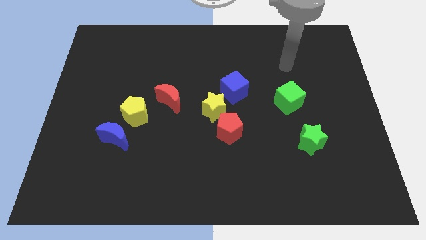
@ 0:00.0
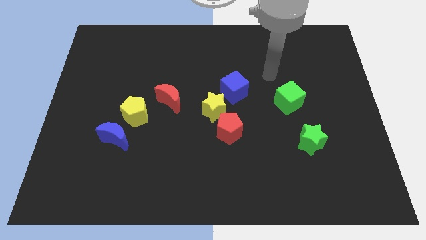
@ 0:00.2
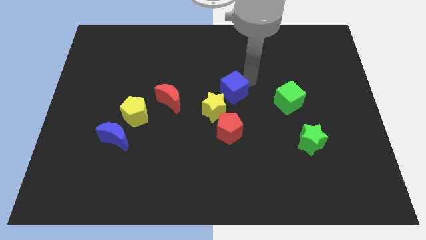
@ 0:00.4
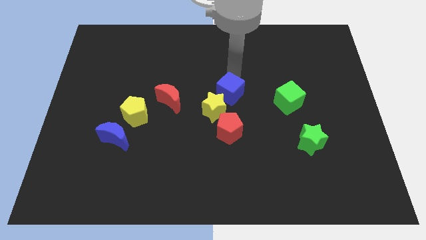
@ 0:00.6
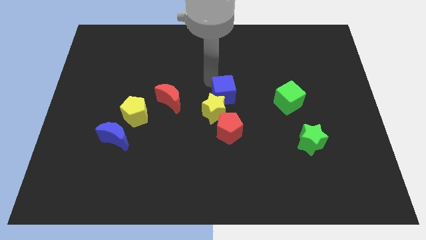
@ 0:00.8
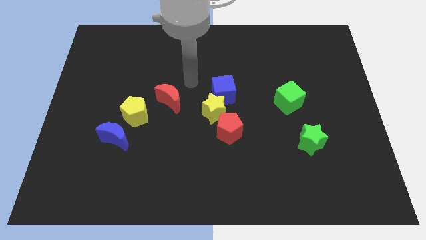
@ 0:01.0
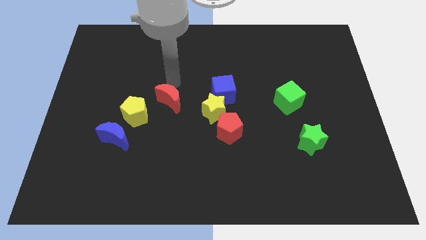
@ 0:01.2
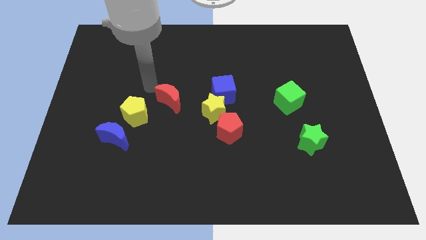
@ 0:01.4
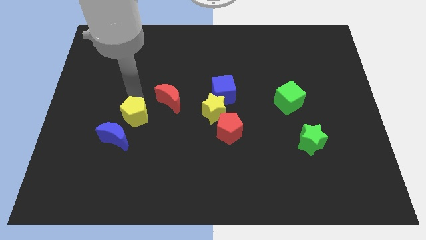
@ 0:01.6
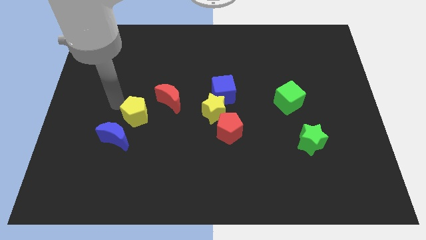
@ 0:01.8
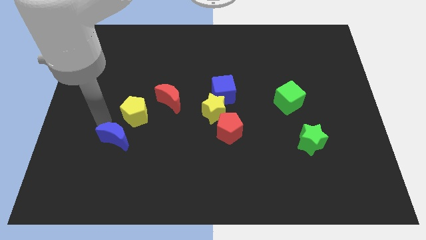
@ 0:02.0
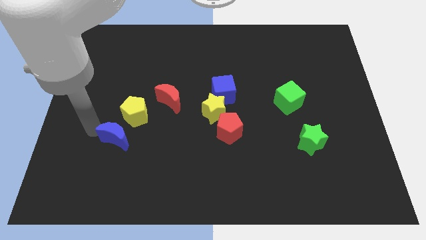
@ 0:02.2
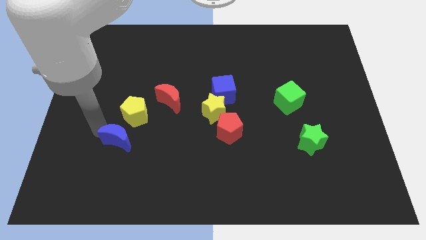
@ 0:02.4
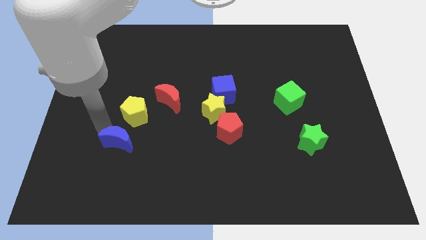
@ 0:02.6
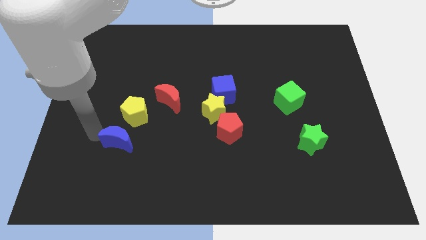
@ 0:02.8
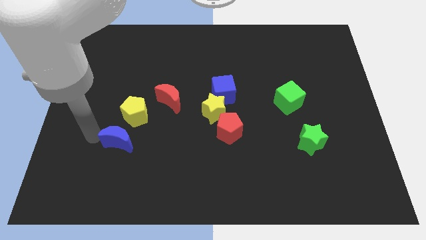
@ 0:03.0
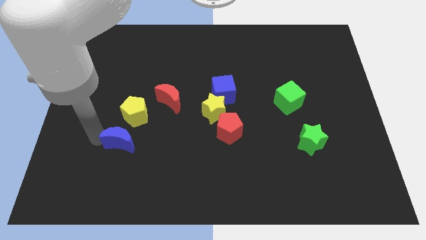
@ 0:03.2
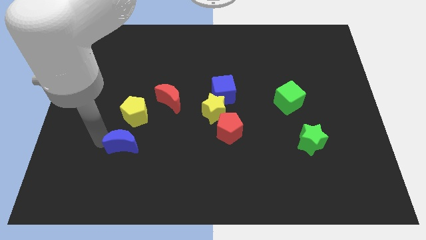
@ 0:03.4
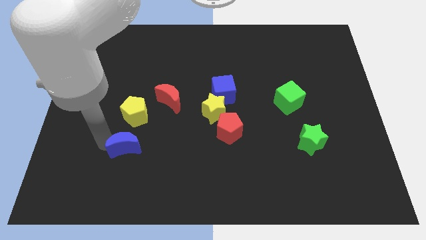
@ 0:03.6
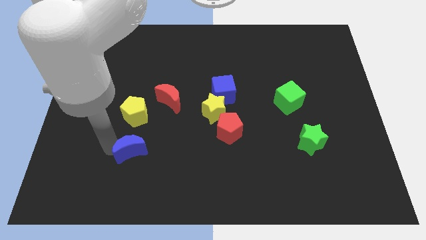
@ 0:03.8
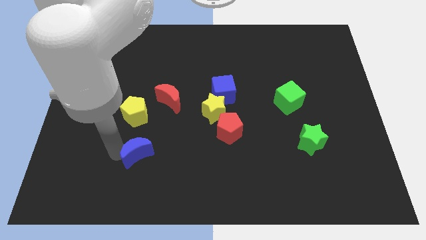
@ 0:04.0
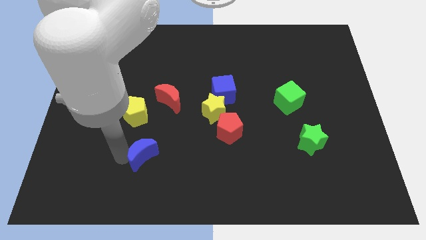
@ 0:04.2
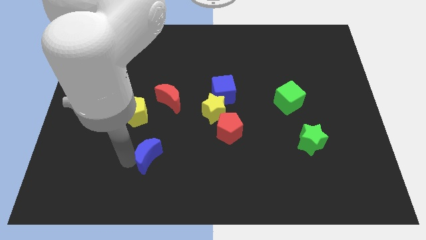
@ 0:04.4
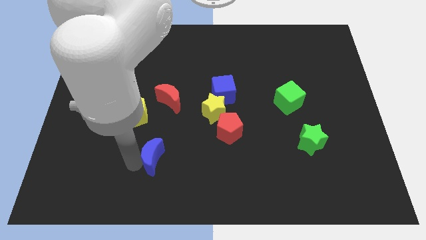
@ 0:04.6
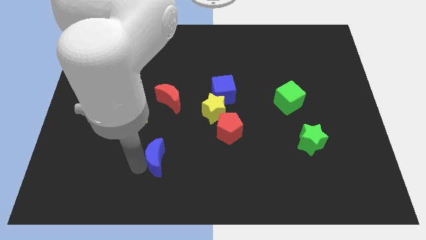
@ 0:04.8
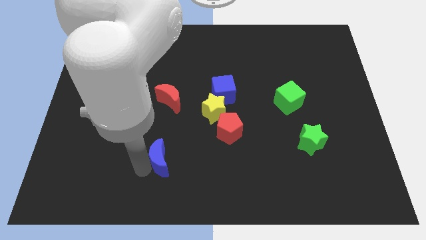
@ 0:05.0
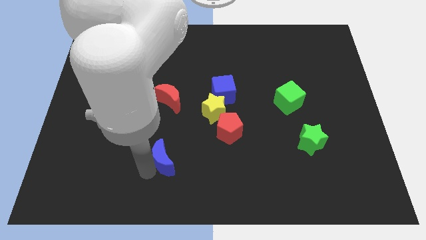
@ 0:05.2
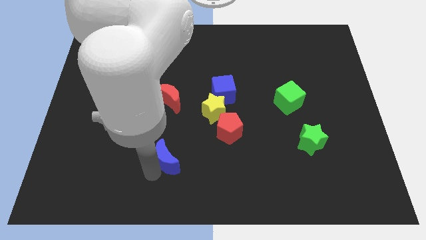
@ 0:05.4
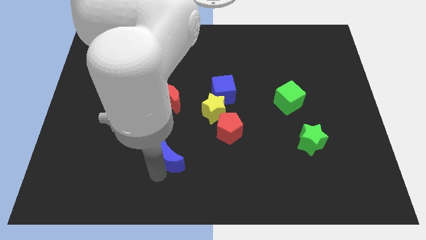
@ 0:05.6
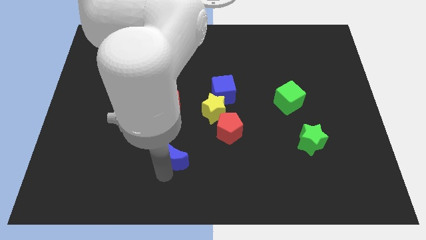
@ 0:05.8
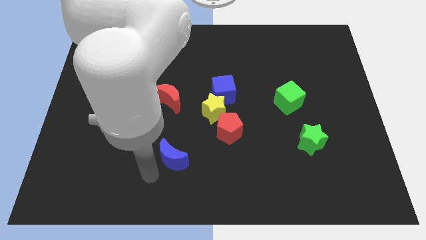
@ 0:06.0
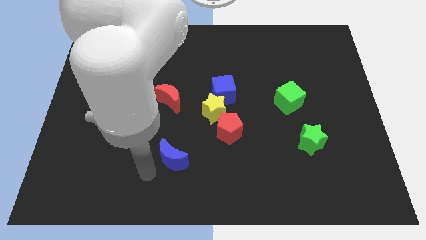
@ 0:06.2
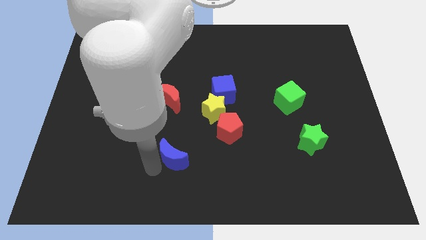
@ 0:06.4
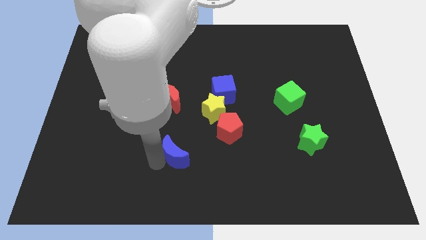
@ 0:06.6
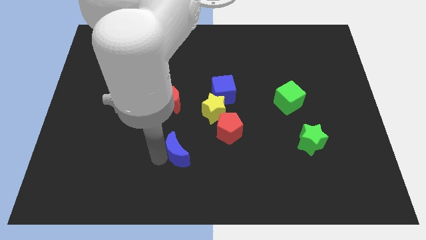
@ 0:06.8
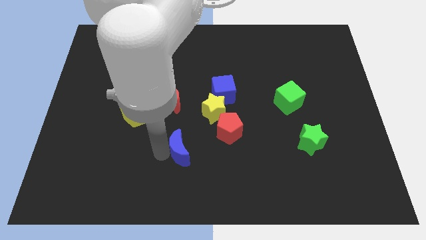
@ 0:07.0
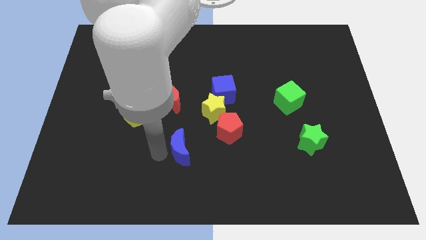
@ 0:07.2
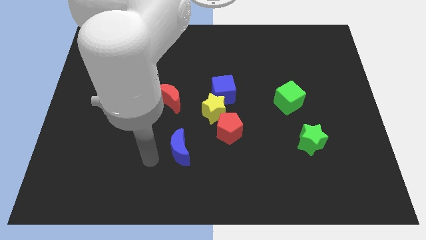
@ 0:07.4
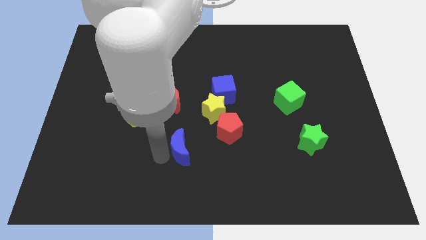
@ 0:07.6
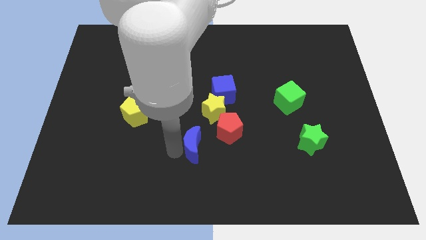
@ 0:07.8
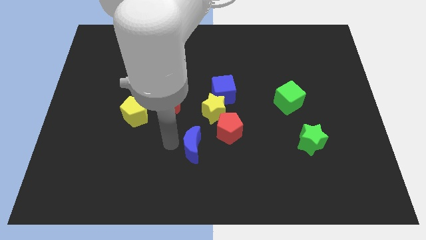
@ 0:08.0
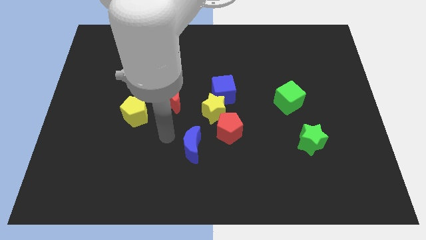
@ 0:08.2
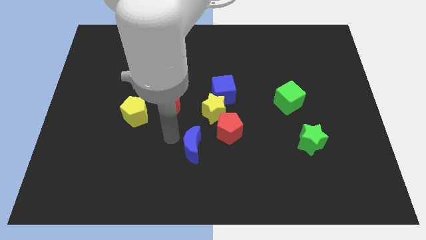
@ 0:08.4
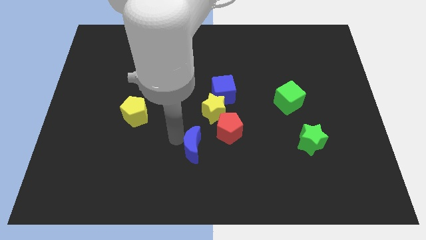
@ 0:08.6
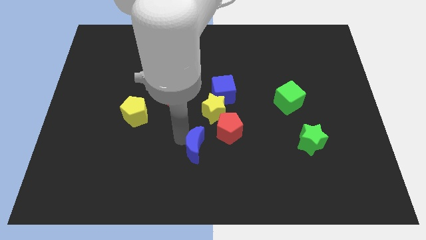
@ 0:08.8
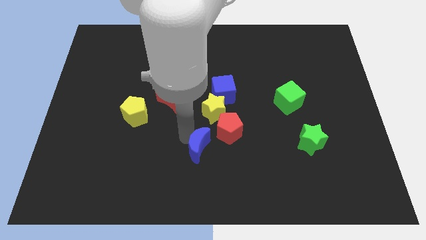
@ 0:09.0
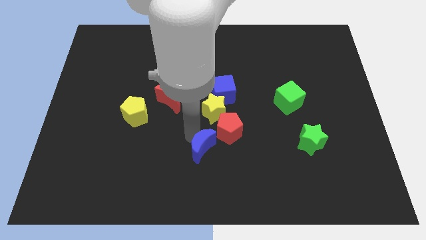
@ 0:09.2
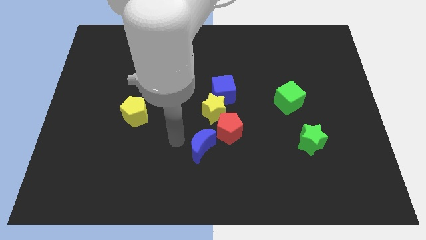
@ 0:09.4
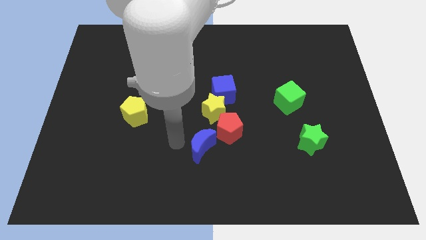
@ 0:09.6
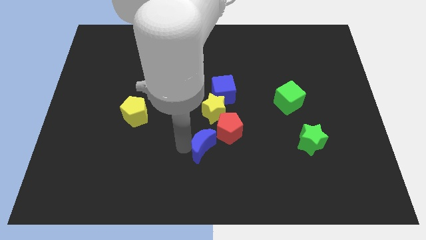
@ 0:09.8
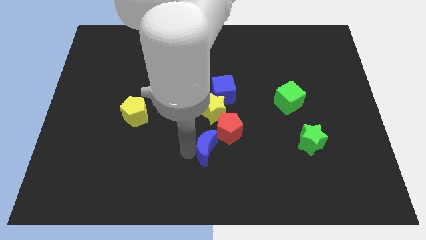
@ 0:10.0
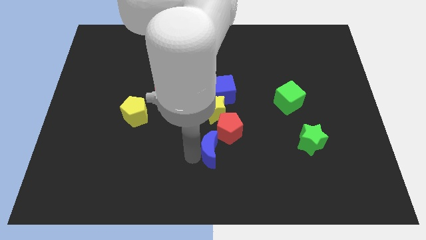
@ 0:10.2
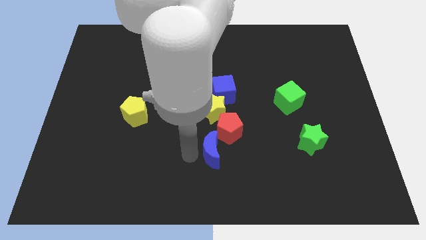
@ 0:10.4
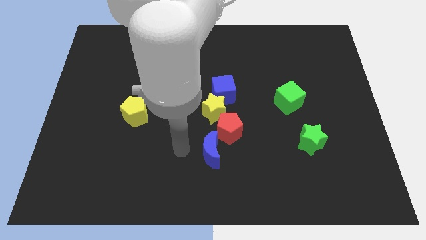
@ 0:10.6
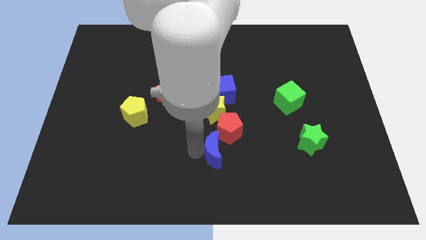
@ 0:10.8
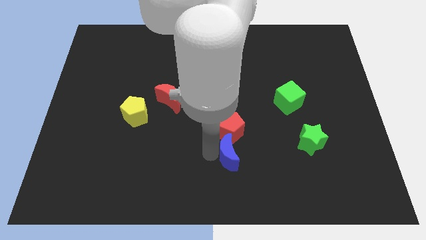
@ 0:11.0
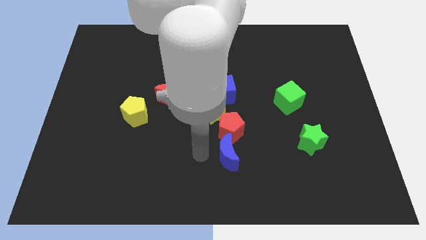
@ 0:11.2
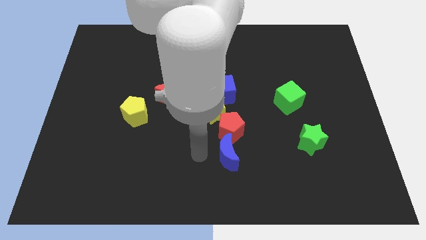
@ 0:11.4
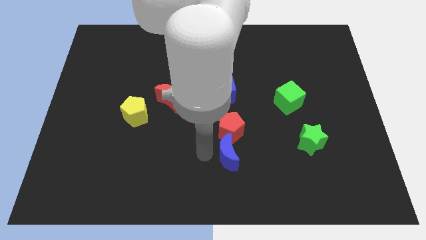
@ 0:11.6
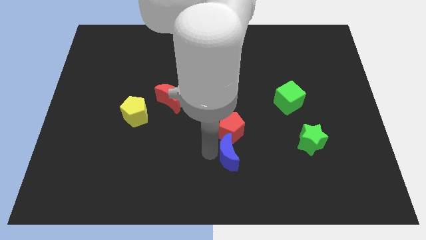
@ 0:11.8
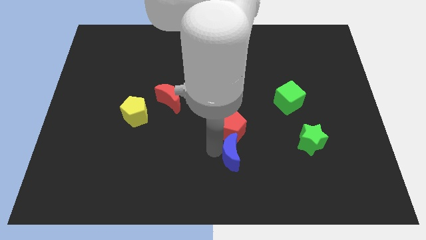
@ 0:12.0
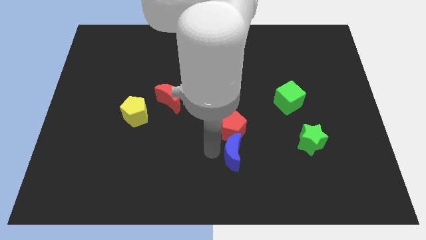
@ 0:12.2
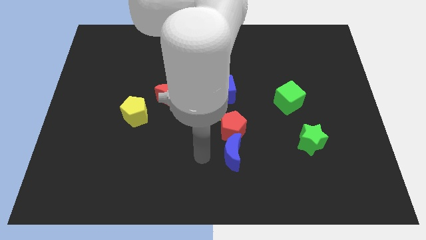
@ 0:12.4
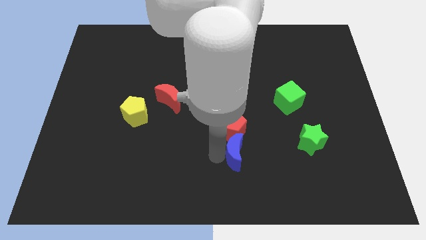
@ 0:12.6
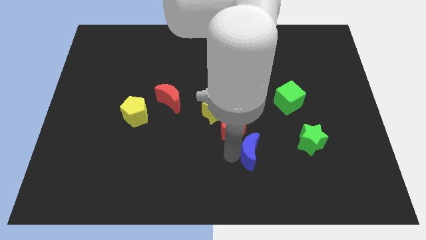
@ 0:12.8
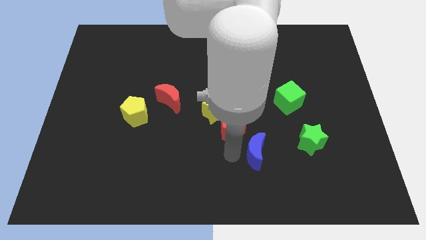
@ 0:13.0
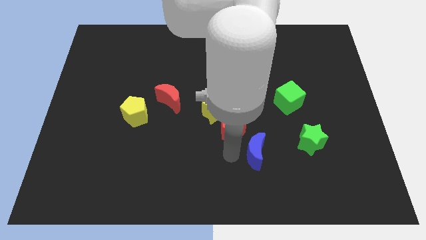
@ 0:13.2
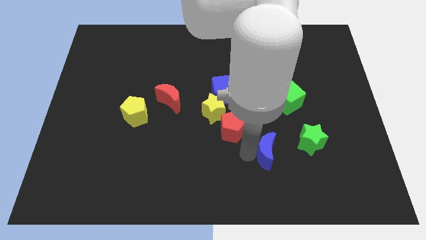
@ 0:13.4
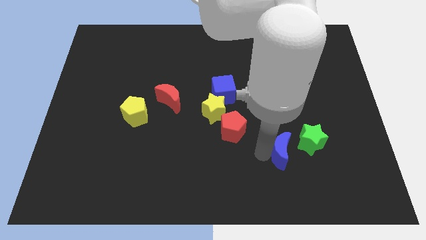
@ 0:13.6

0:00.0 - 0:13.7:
slide the blue moon below the green cube

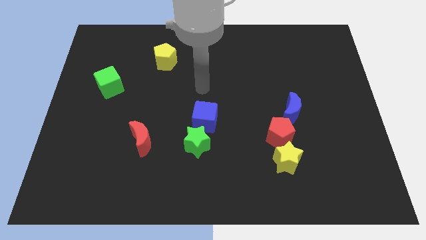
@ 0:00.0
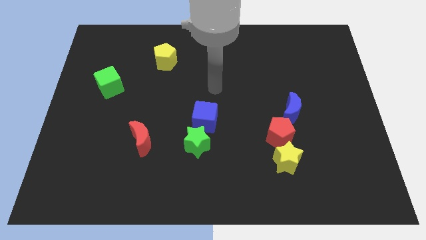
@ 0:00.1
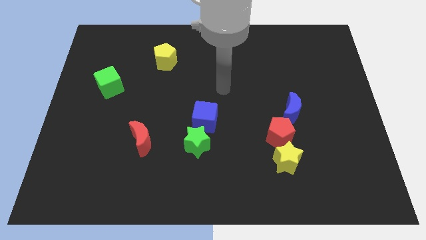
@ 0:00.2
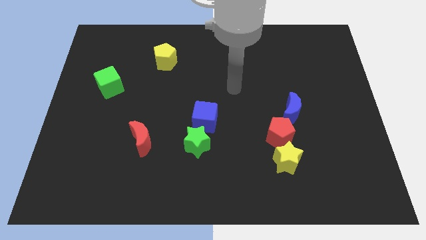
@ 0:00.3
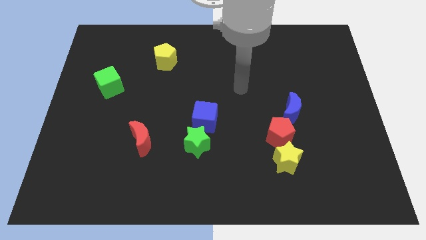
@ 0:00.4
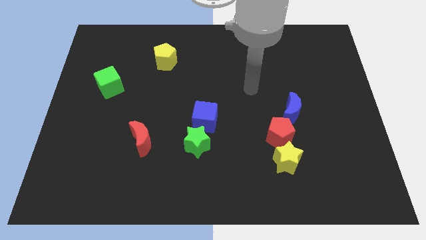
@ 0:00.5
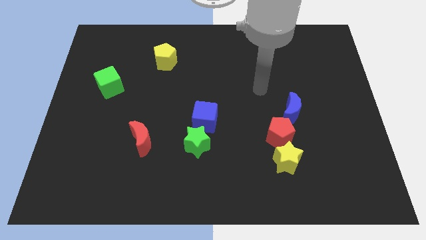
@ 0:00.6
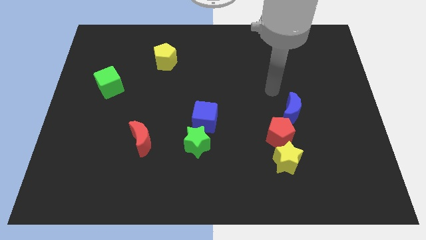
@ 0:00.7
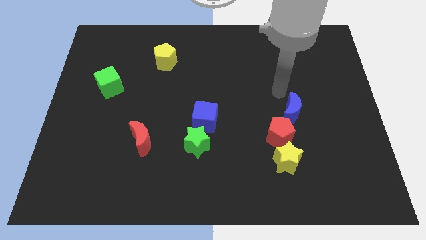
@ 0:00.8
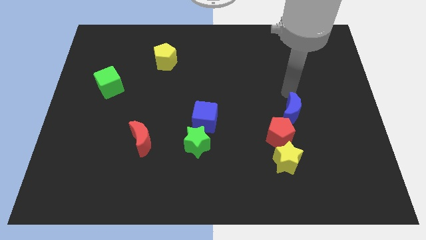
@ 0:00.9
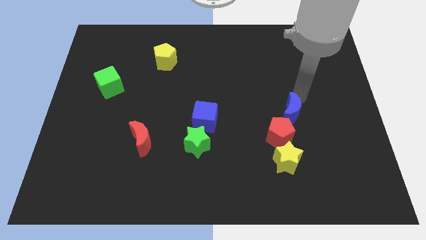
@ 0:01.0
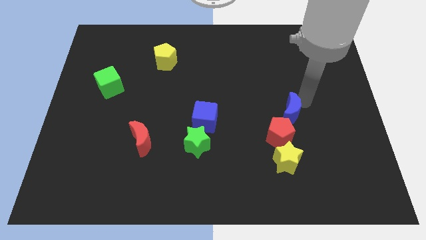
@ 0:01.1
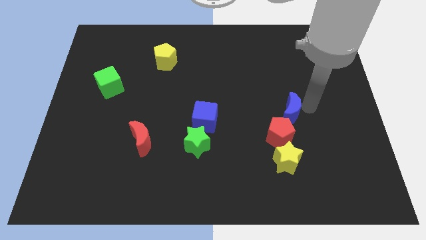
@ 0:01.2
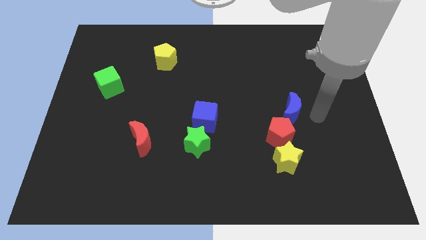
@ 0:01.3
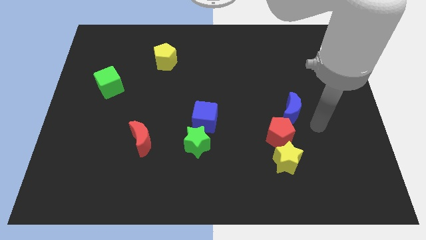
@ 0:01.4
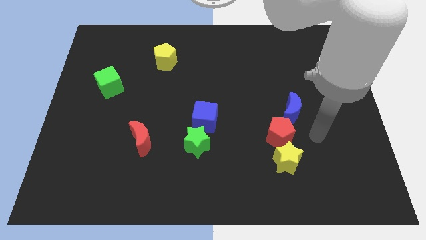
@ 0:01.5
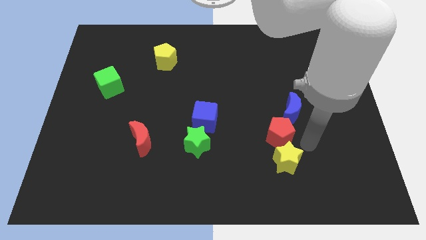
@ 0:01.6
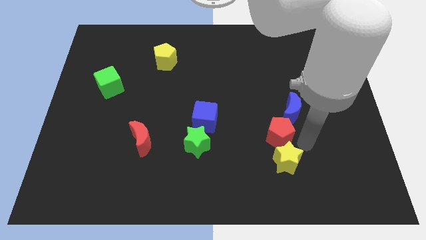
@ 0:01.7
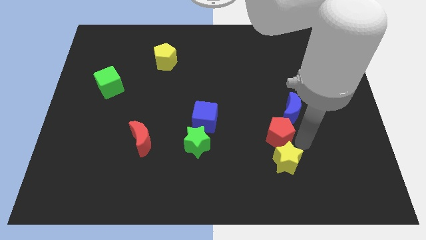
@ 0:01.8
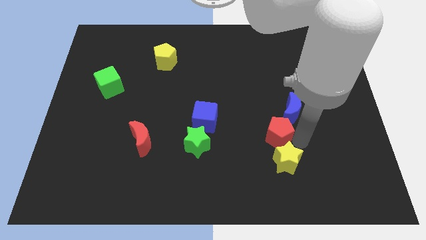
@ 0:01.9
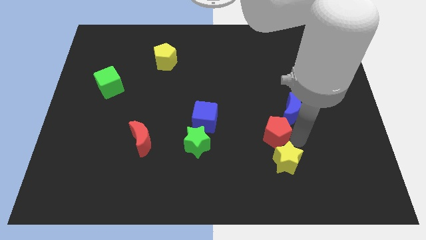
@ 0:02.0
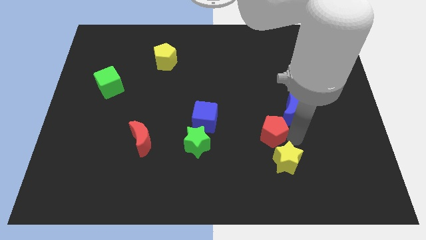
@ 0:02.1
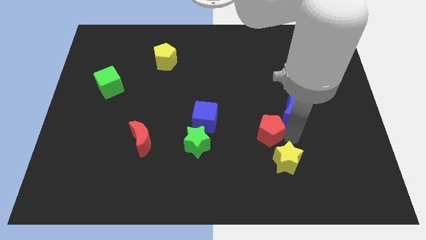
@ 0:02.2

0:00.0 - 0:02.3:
slide the red pentagon to the right of the blue cube
